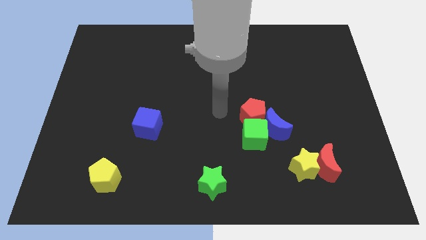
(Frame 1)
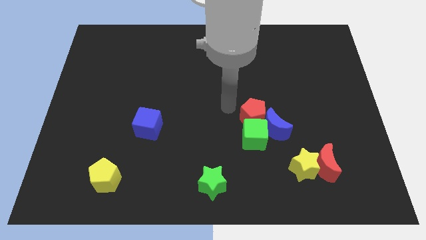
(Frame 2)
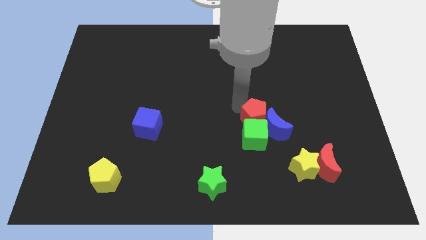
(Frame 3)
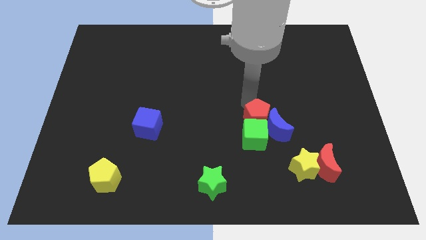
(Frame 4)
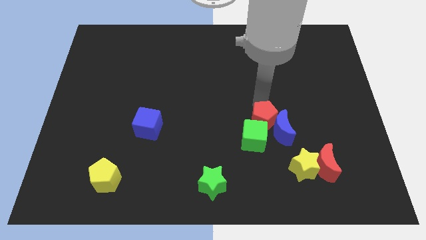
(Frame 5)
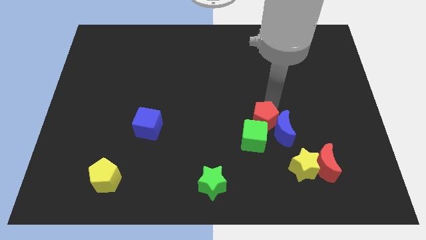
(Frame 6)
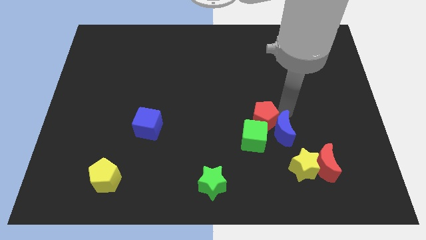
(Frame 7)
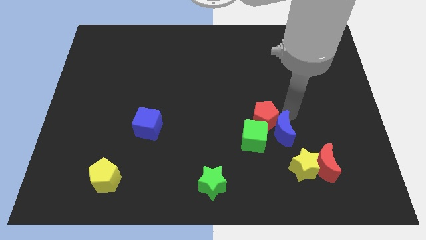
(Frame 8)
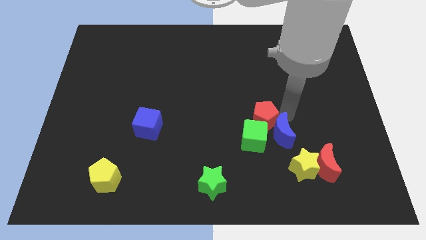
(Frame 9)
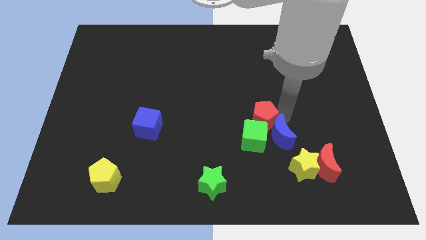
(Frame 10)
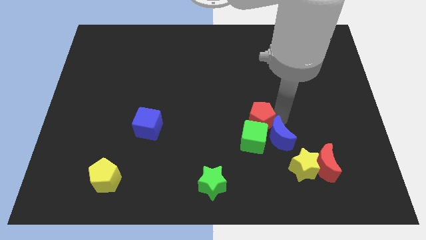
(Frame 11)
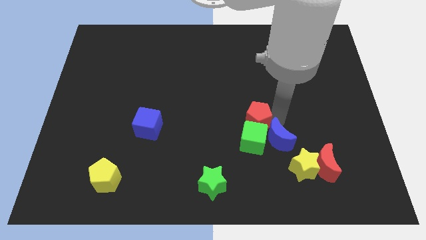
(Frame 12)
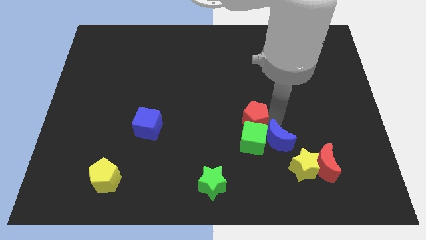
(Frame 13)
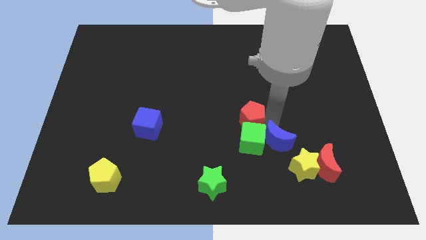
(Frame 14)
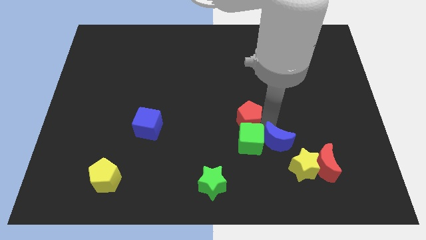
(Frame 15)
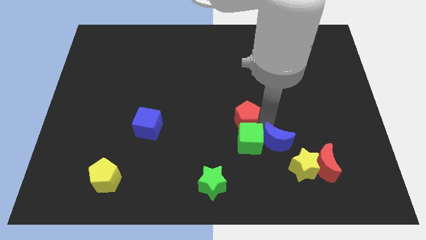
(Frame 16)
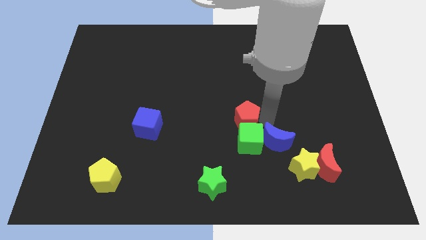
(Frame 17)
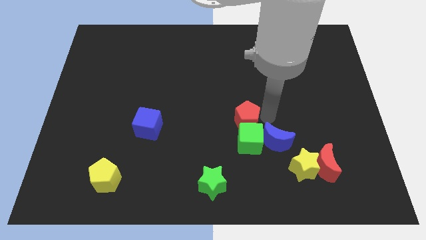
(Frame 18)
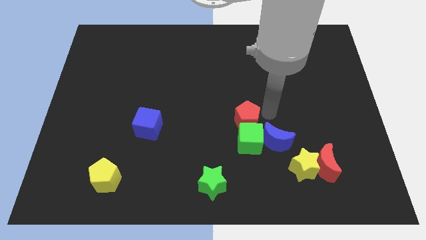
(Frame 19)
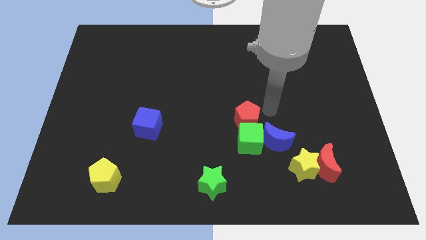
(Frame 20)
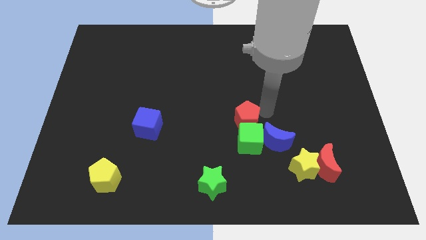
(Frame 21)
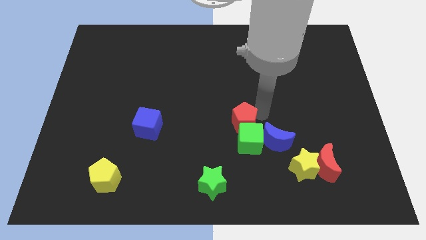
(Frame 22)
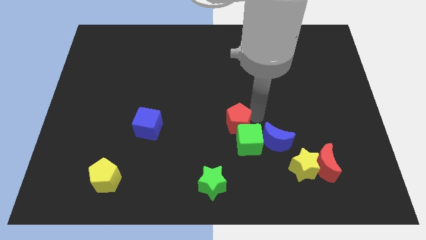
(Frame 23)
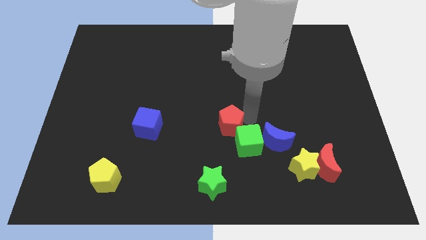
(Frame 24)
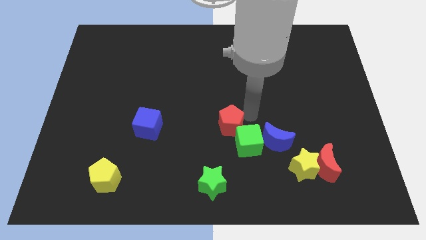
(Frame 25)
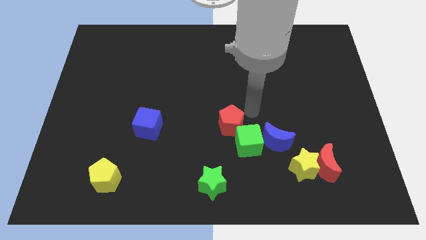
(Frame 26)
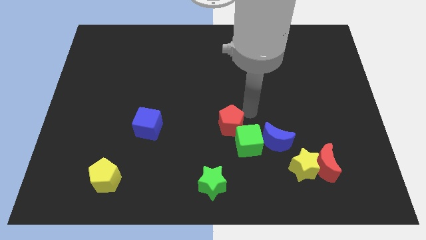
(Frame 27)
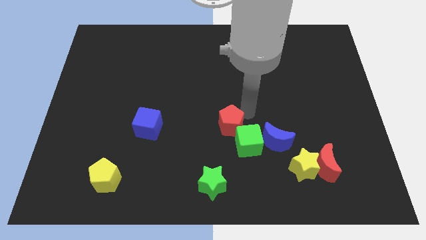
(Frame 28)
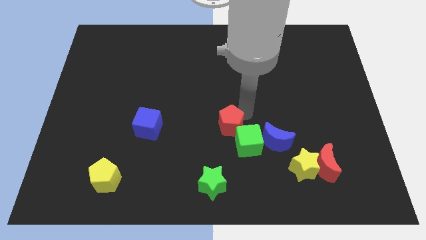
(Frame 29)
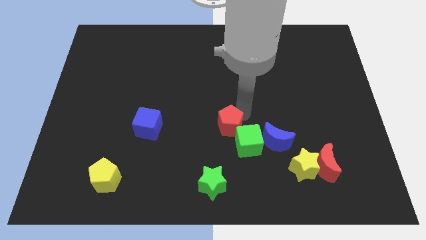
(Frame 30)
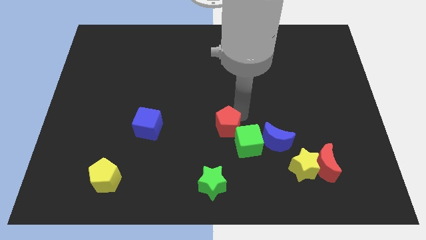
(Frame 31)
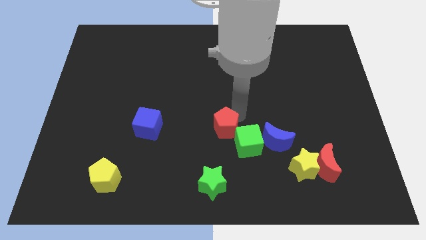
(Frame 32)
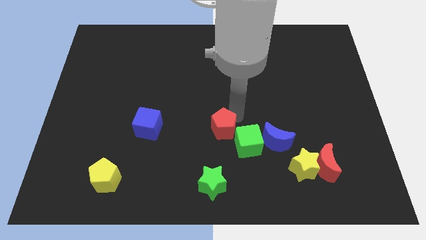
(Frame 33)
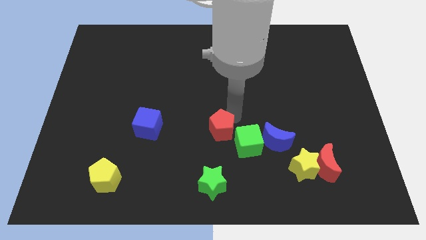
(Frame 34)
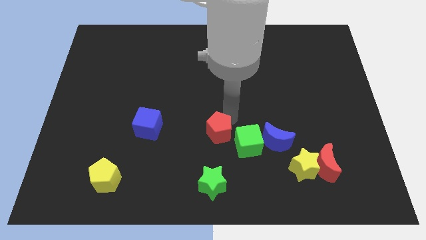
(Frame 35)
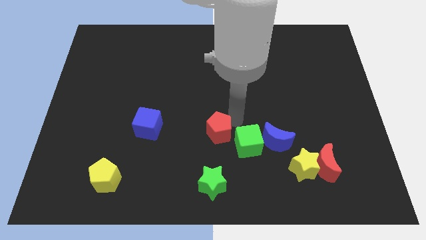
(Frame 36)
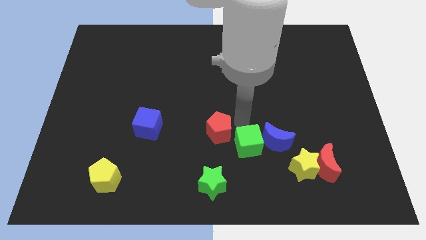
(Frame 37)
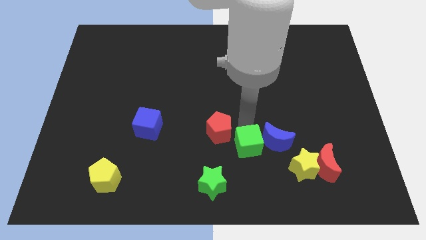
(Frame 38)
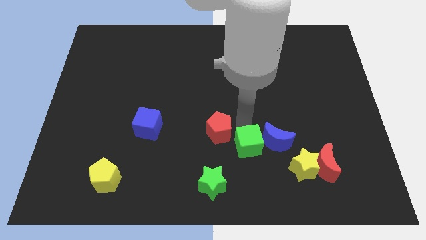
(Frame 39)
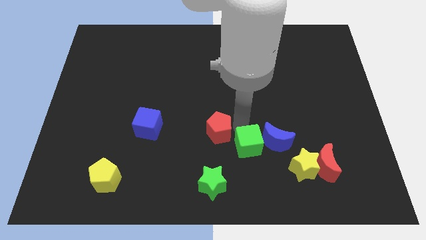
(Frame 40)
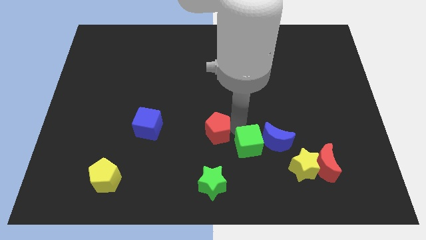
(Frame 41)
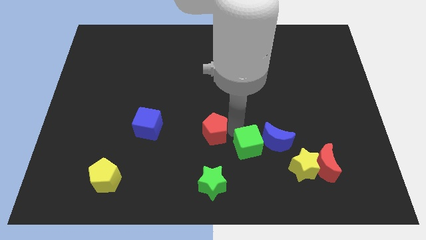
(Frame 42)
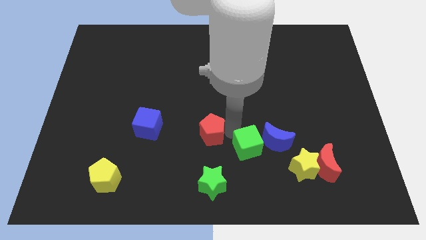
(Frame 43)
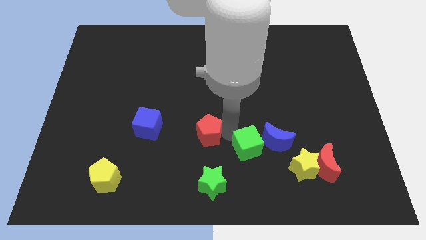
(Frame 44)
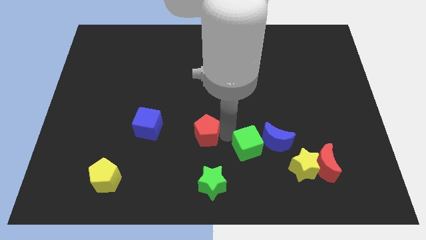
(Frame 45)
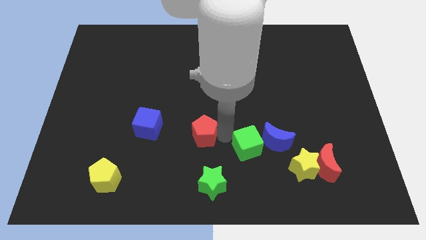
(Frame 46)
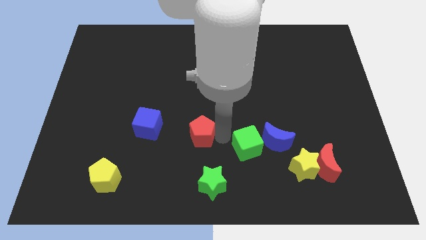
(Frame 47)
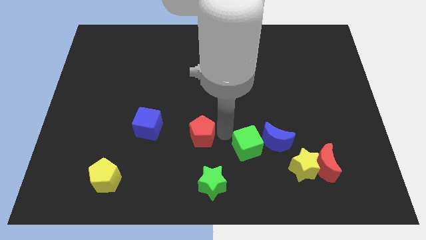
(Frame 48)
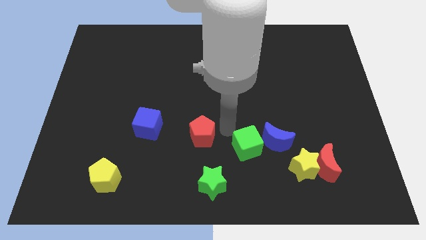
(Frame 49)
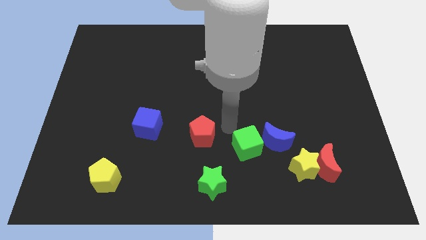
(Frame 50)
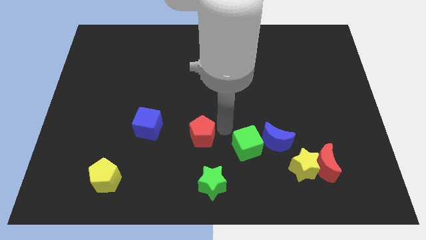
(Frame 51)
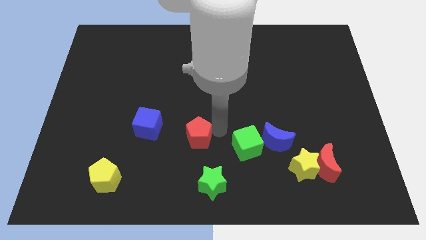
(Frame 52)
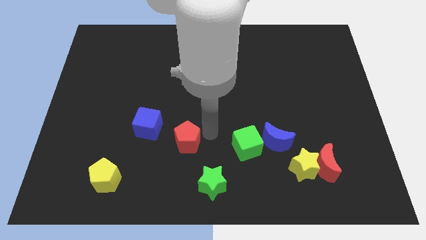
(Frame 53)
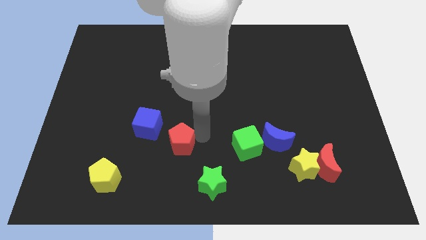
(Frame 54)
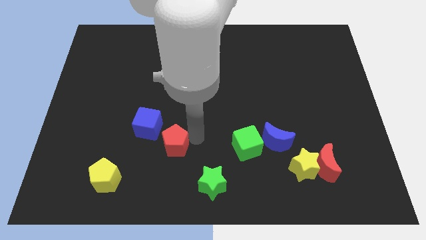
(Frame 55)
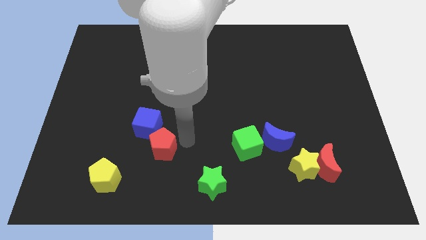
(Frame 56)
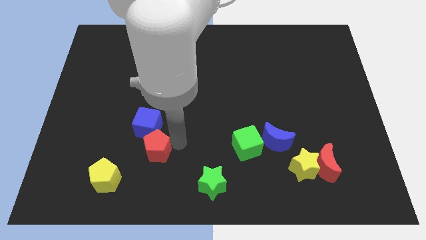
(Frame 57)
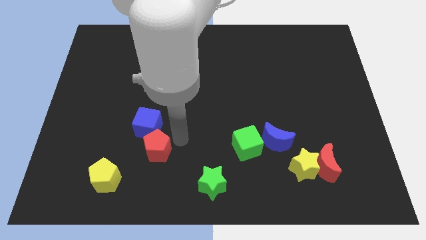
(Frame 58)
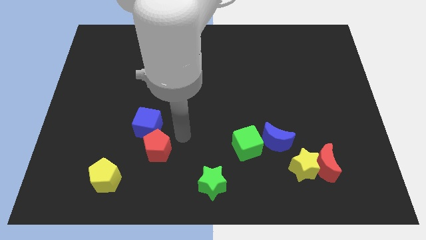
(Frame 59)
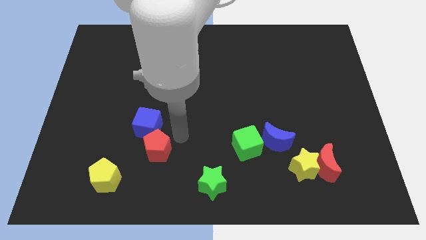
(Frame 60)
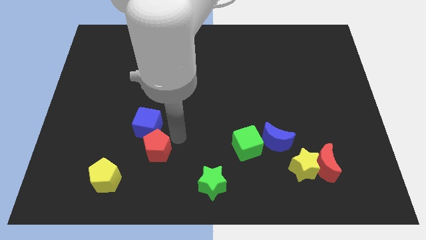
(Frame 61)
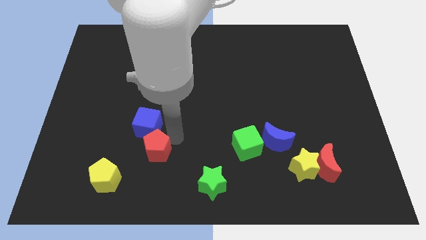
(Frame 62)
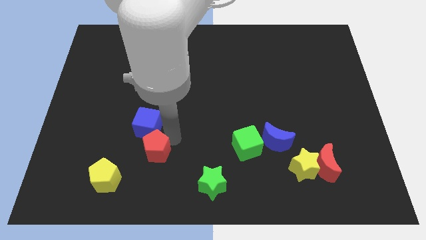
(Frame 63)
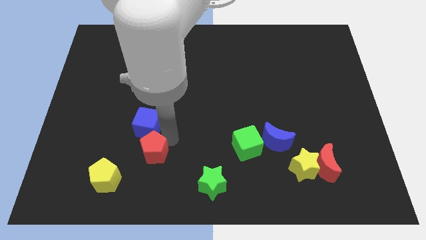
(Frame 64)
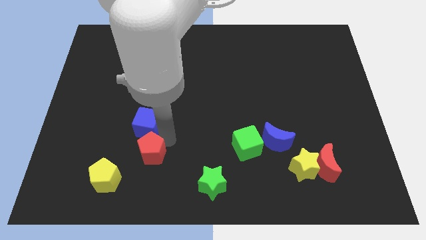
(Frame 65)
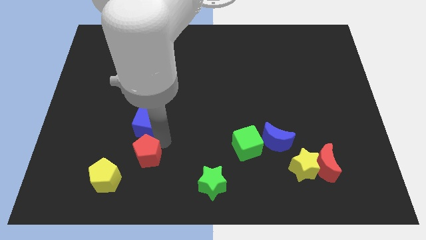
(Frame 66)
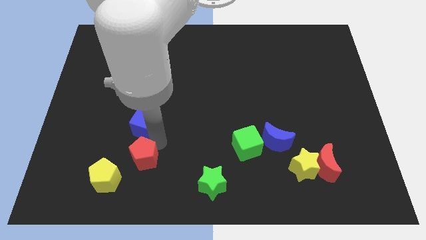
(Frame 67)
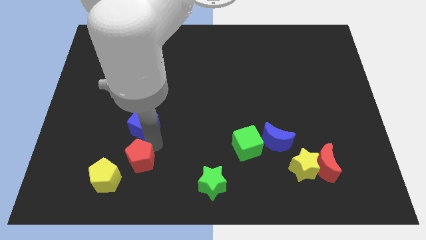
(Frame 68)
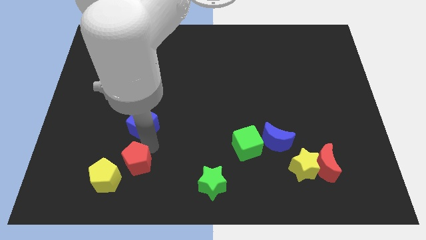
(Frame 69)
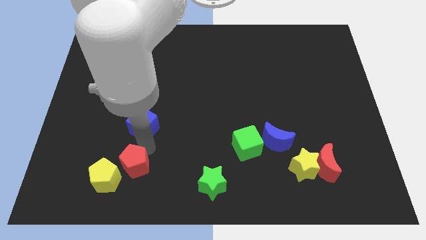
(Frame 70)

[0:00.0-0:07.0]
put the red pentagon next to the yellow pentagon
